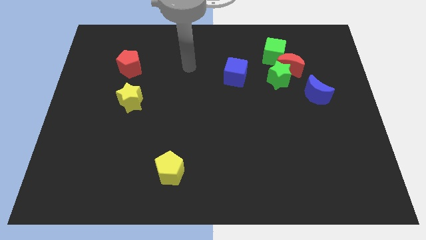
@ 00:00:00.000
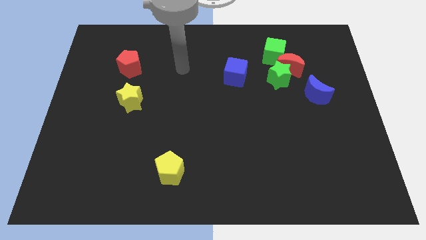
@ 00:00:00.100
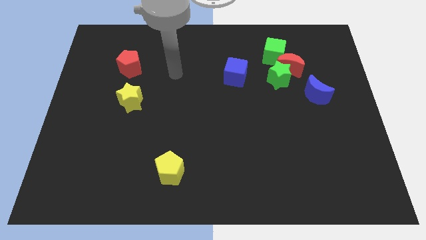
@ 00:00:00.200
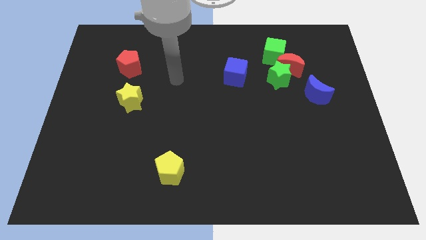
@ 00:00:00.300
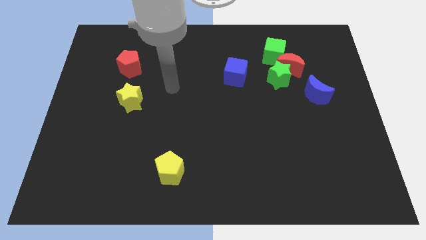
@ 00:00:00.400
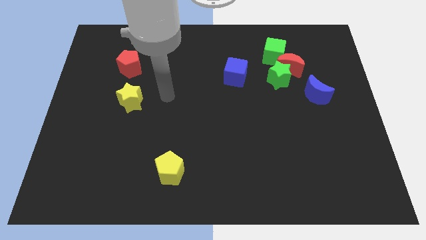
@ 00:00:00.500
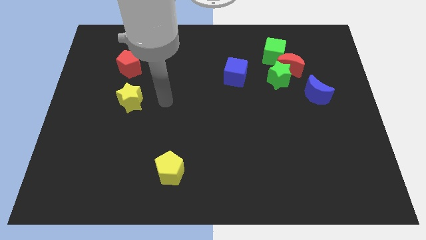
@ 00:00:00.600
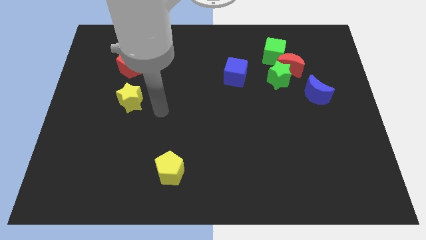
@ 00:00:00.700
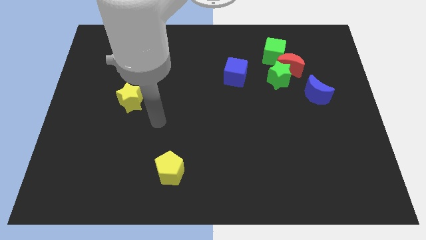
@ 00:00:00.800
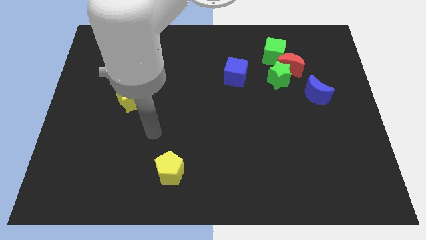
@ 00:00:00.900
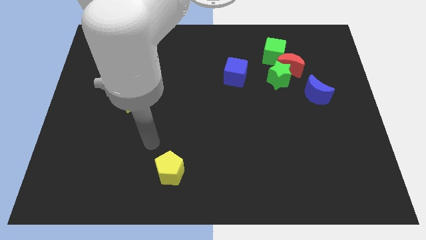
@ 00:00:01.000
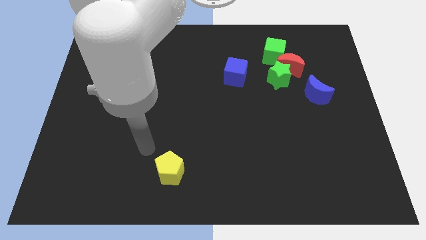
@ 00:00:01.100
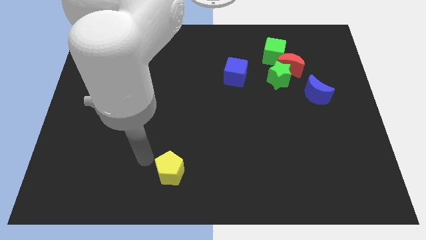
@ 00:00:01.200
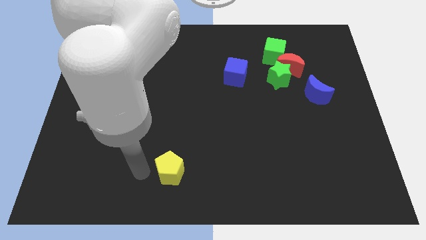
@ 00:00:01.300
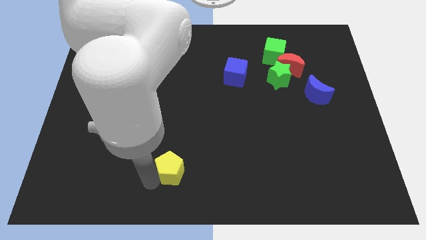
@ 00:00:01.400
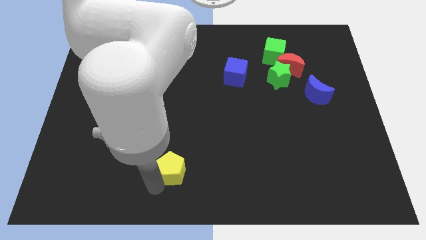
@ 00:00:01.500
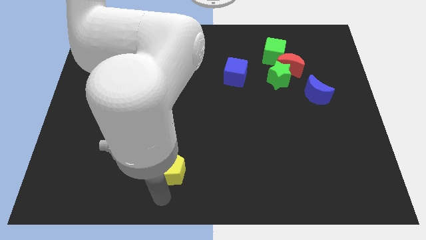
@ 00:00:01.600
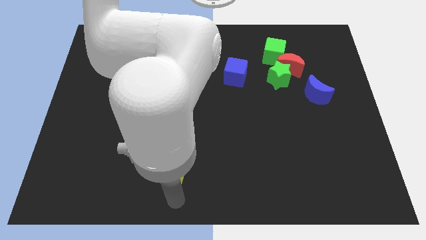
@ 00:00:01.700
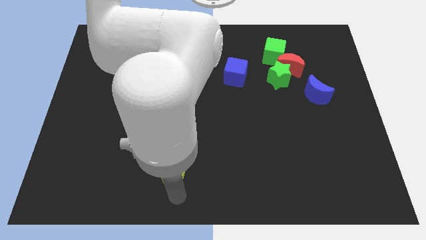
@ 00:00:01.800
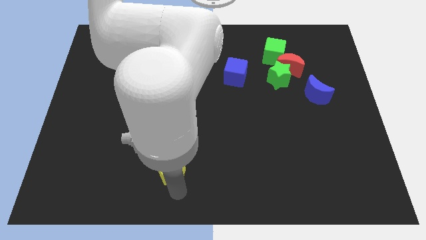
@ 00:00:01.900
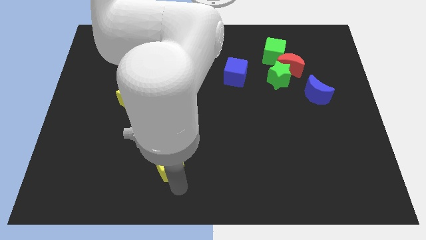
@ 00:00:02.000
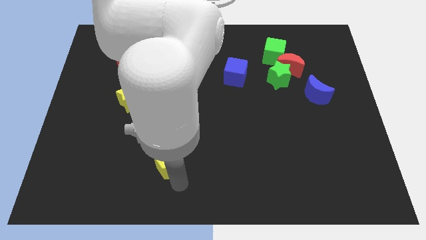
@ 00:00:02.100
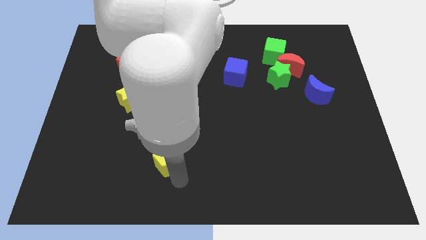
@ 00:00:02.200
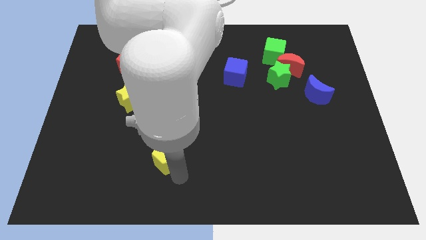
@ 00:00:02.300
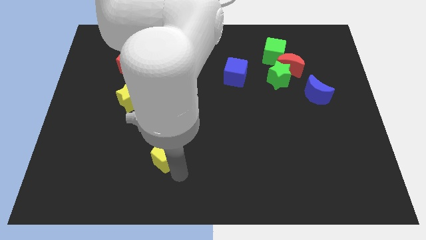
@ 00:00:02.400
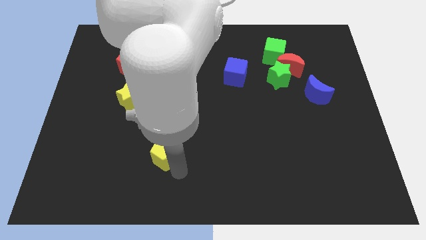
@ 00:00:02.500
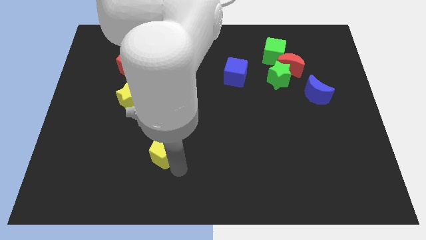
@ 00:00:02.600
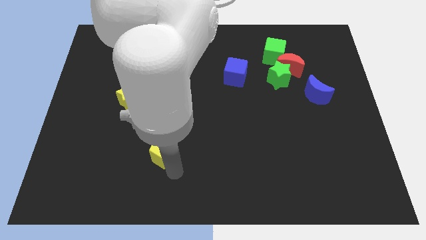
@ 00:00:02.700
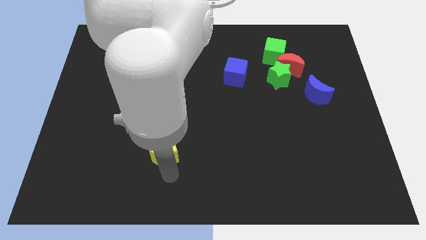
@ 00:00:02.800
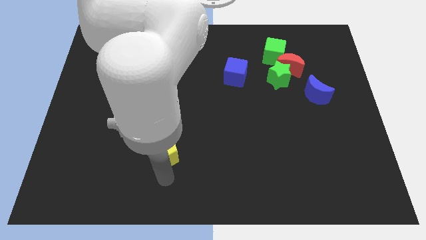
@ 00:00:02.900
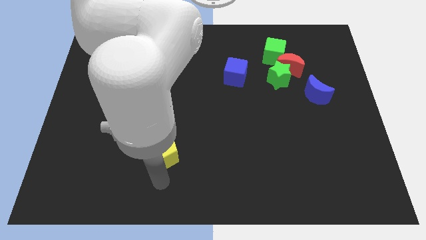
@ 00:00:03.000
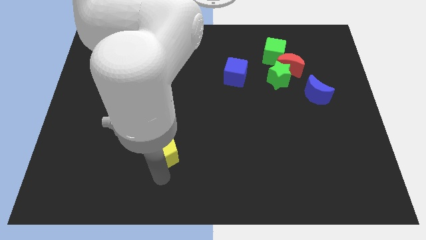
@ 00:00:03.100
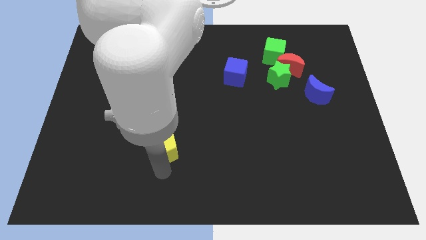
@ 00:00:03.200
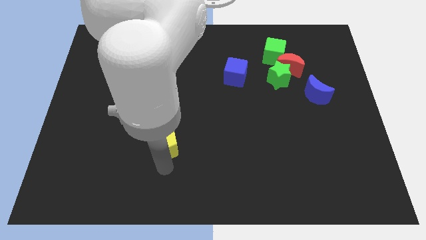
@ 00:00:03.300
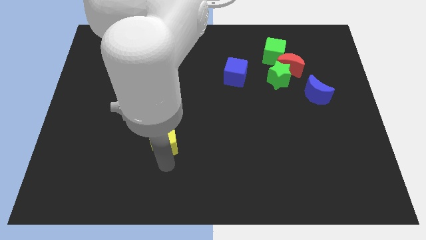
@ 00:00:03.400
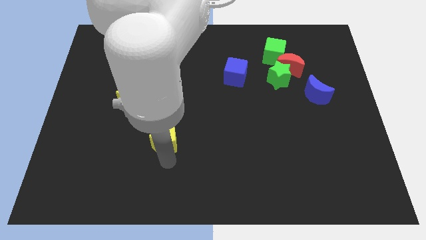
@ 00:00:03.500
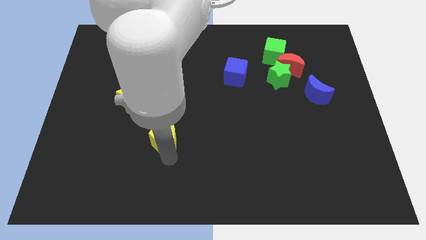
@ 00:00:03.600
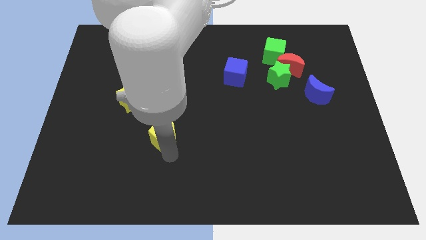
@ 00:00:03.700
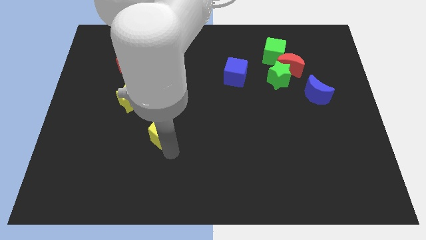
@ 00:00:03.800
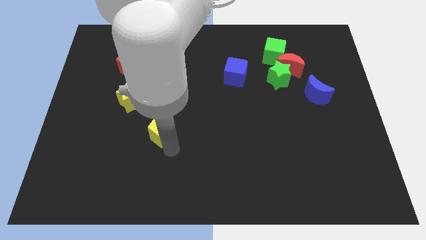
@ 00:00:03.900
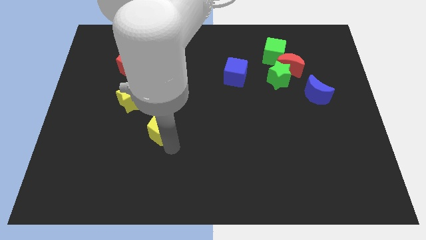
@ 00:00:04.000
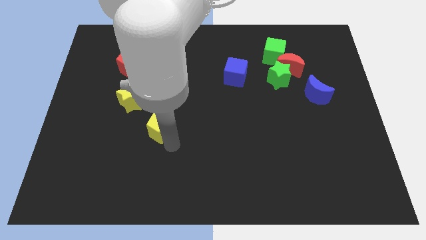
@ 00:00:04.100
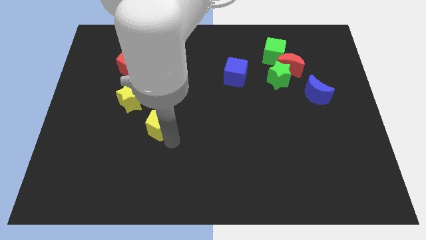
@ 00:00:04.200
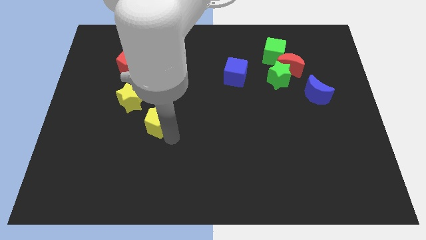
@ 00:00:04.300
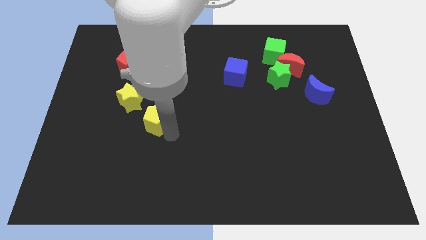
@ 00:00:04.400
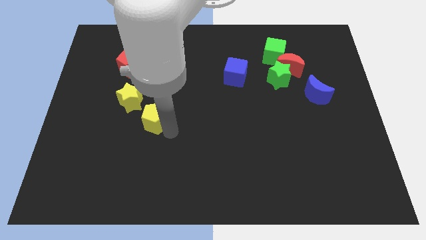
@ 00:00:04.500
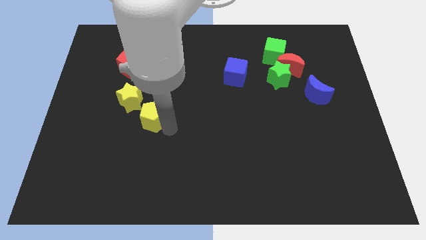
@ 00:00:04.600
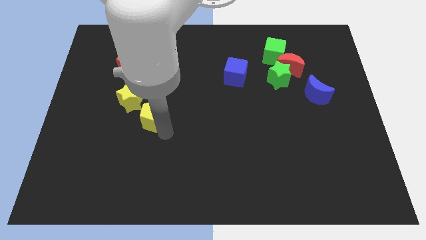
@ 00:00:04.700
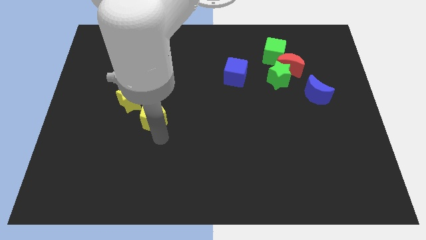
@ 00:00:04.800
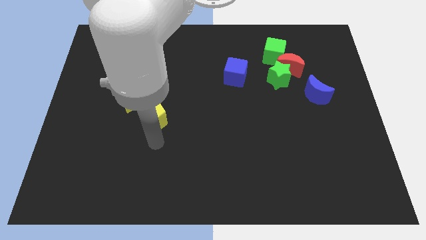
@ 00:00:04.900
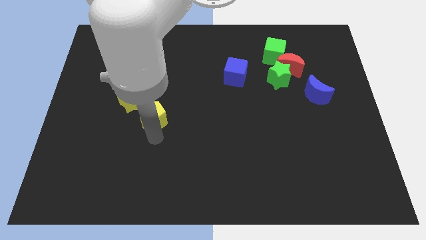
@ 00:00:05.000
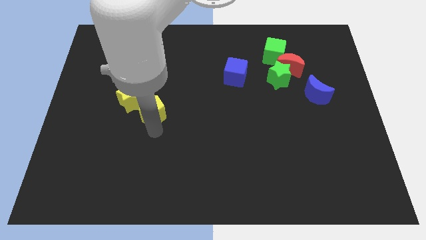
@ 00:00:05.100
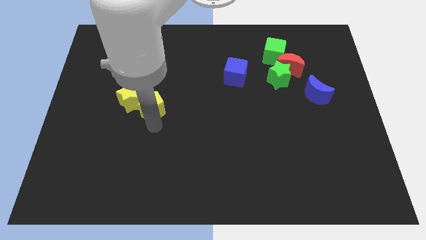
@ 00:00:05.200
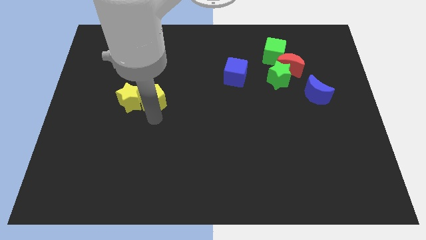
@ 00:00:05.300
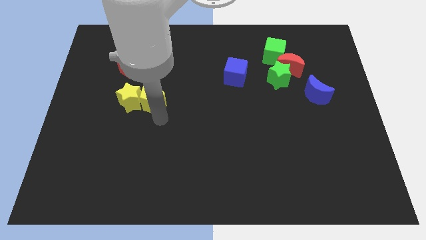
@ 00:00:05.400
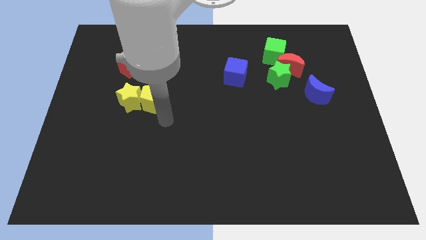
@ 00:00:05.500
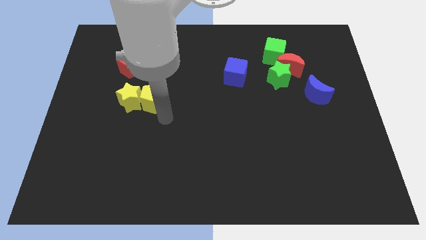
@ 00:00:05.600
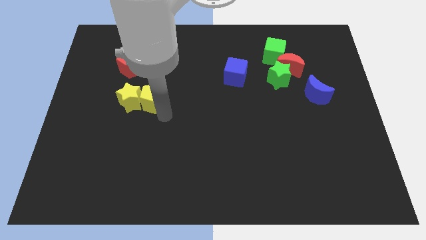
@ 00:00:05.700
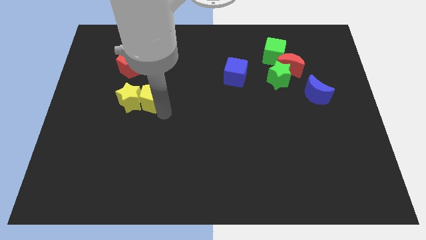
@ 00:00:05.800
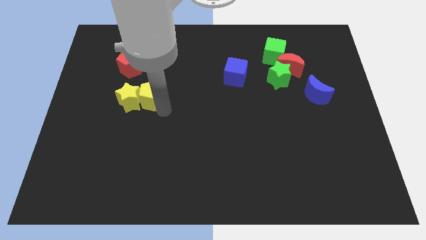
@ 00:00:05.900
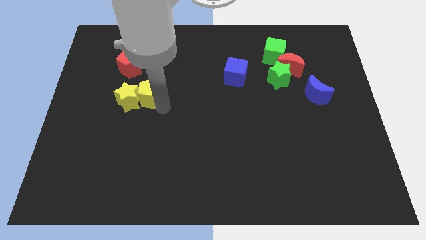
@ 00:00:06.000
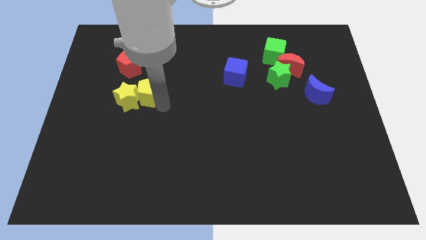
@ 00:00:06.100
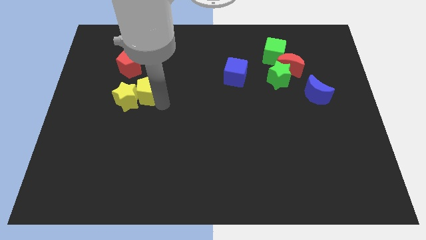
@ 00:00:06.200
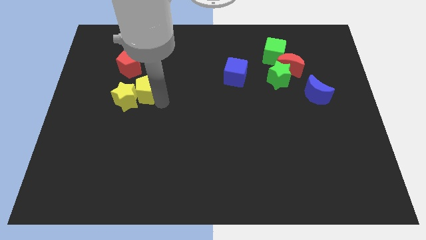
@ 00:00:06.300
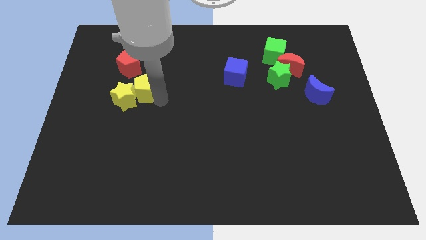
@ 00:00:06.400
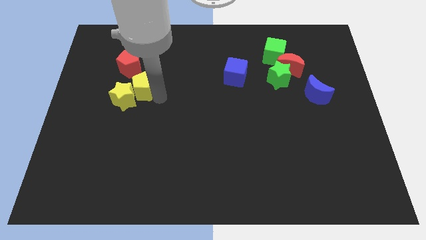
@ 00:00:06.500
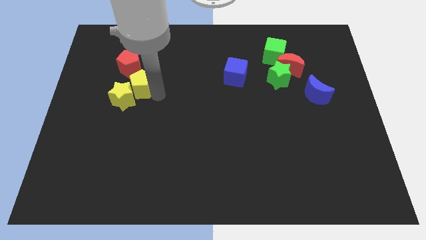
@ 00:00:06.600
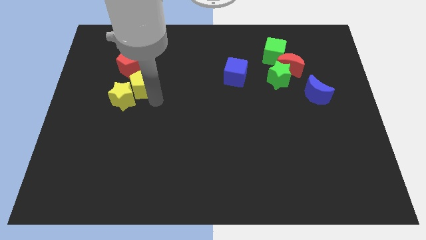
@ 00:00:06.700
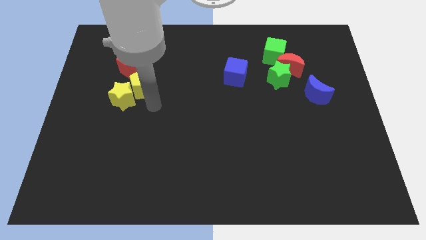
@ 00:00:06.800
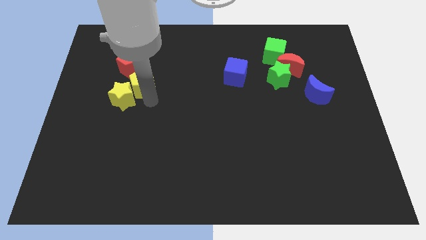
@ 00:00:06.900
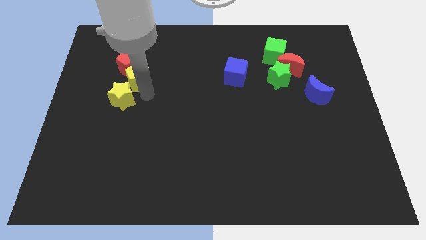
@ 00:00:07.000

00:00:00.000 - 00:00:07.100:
push the yellow pentagon towards the red pentagon
